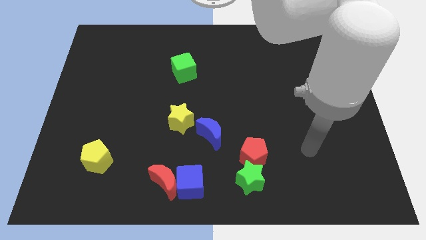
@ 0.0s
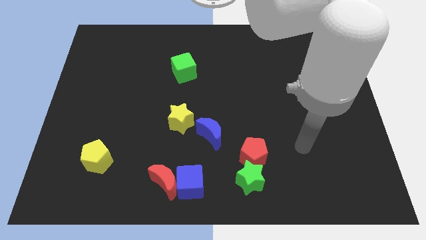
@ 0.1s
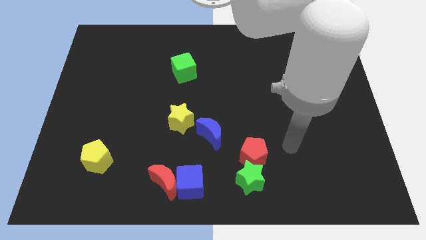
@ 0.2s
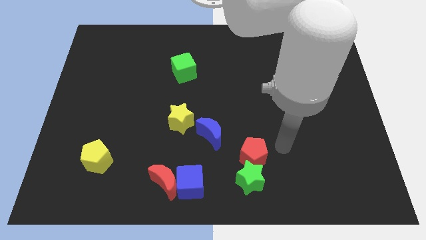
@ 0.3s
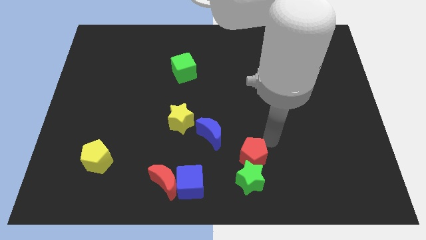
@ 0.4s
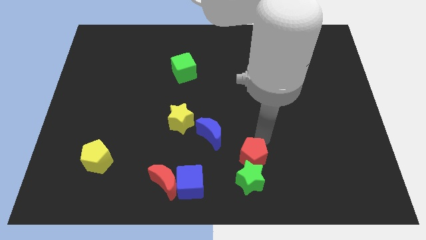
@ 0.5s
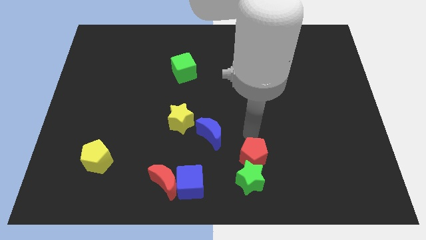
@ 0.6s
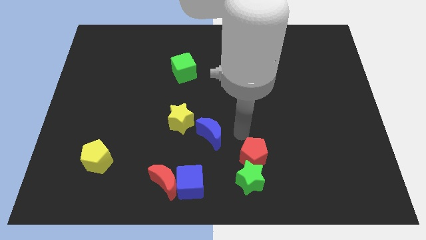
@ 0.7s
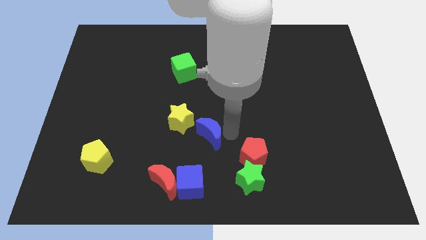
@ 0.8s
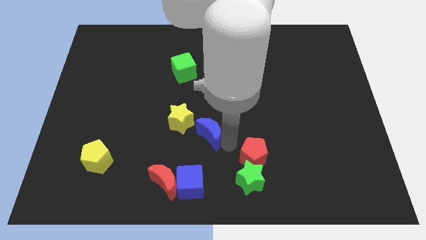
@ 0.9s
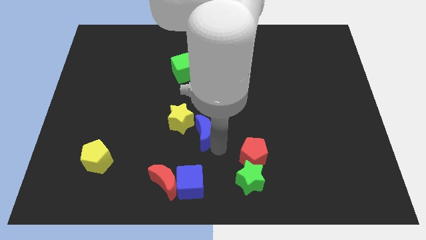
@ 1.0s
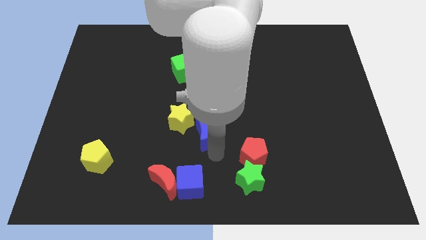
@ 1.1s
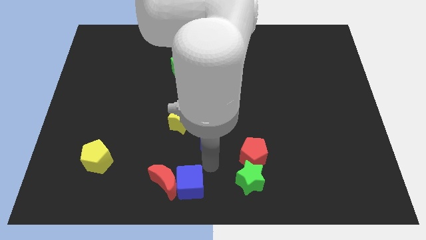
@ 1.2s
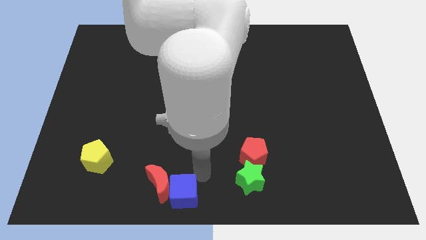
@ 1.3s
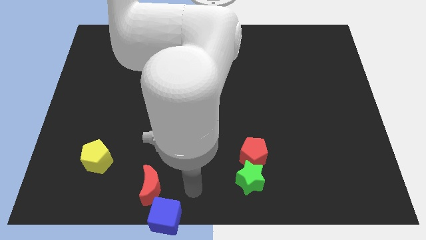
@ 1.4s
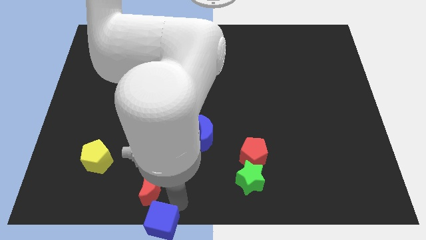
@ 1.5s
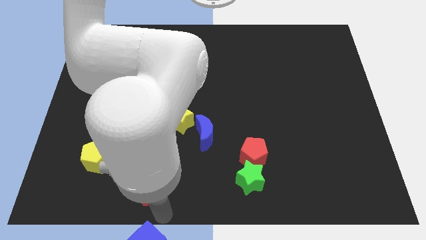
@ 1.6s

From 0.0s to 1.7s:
move the red moon away from the blue cube

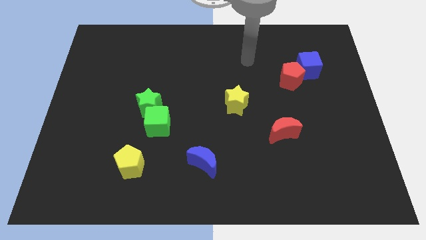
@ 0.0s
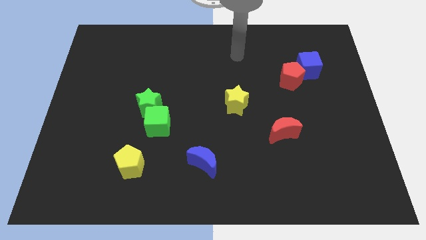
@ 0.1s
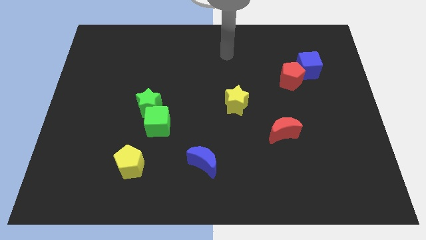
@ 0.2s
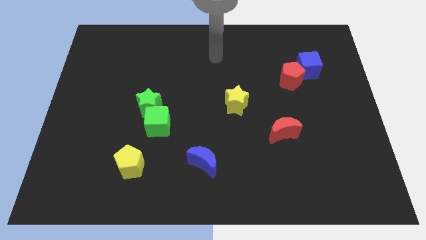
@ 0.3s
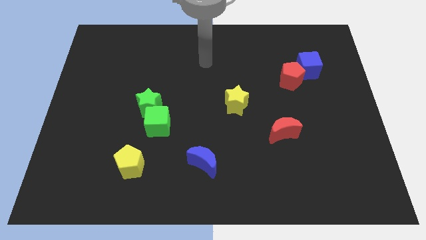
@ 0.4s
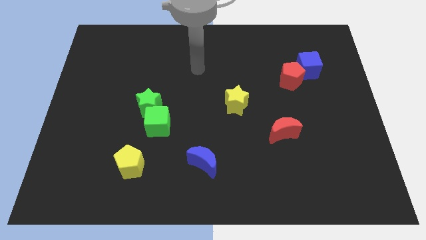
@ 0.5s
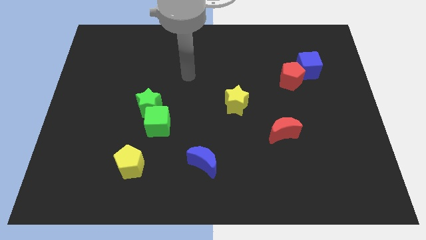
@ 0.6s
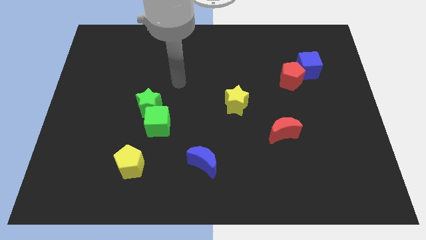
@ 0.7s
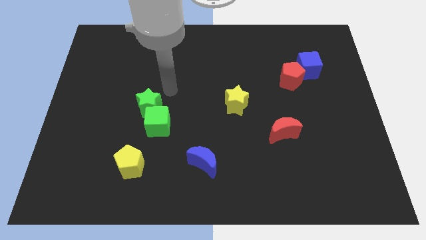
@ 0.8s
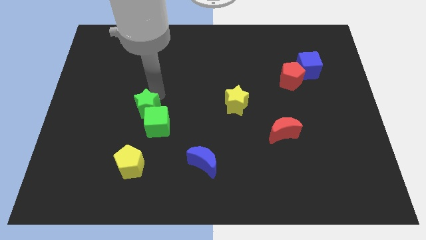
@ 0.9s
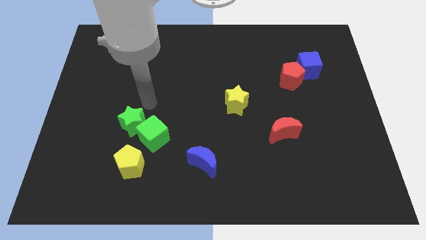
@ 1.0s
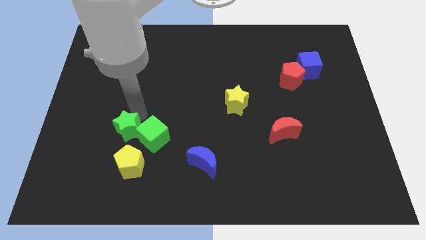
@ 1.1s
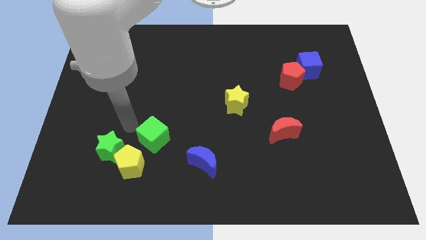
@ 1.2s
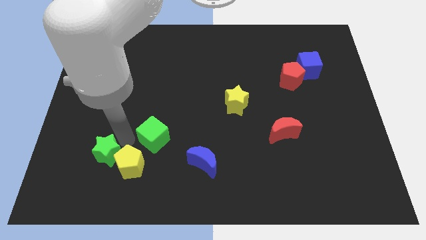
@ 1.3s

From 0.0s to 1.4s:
separate the green cube from the green star

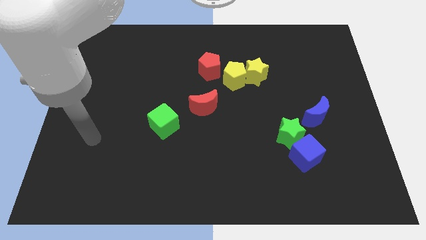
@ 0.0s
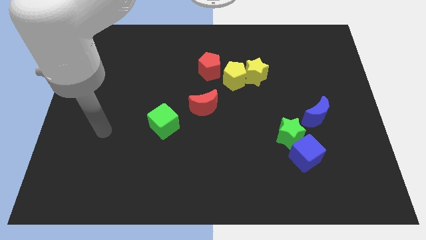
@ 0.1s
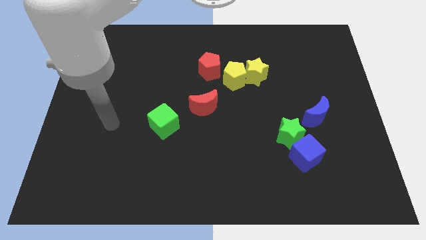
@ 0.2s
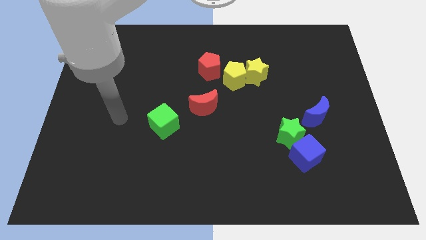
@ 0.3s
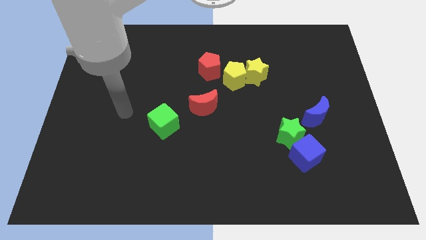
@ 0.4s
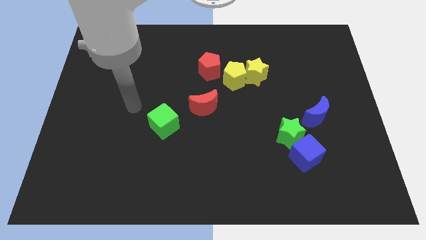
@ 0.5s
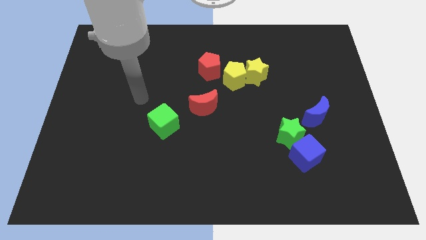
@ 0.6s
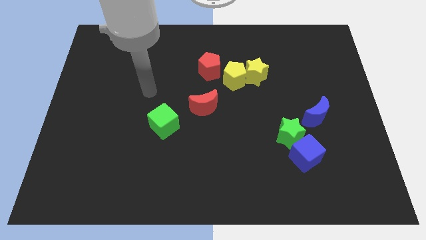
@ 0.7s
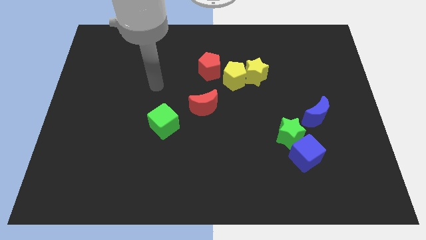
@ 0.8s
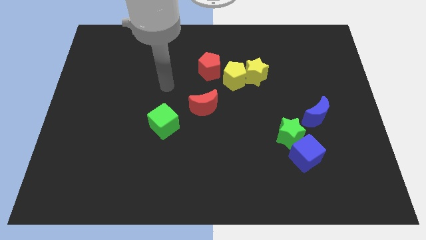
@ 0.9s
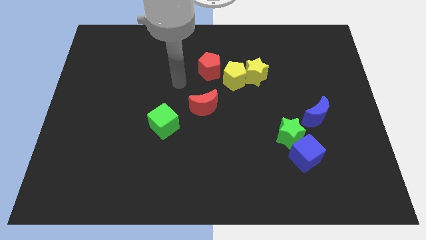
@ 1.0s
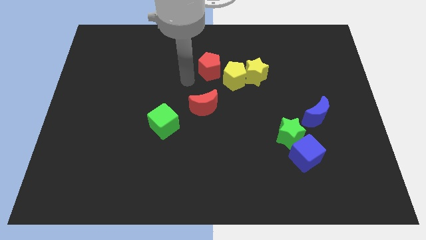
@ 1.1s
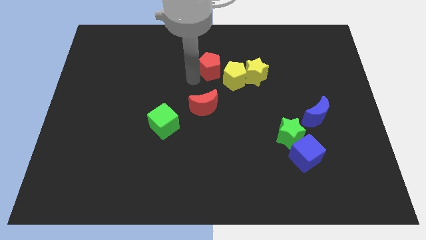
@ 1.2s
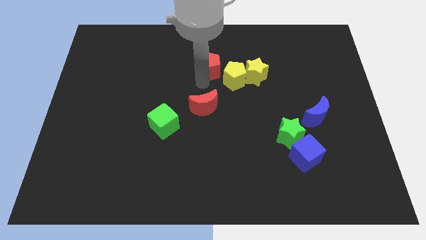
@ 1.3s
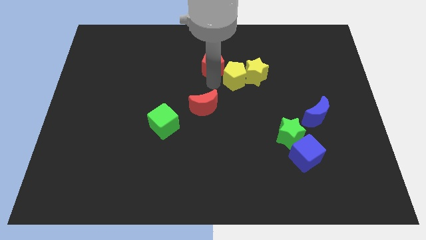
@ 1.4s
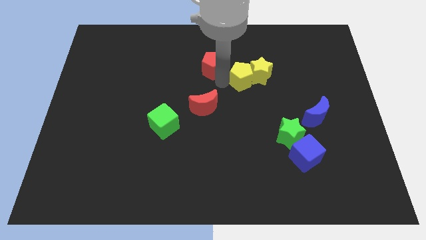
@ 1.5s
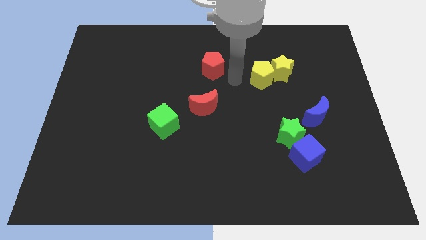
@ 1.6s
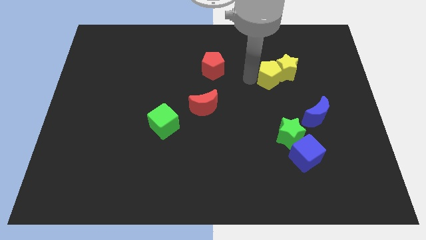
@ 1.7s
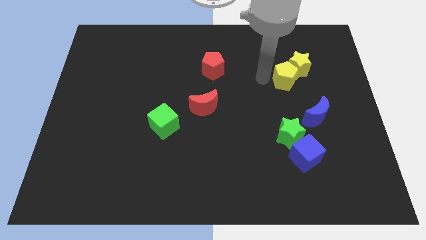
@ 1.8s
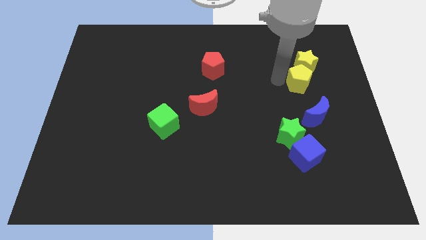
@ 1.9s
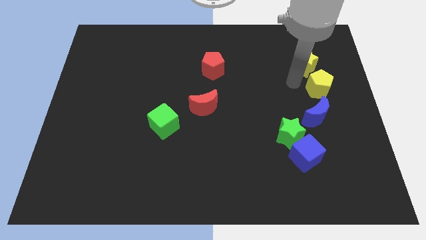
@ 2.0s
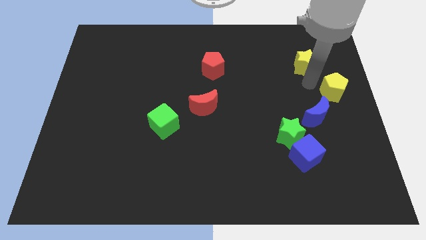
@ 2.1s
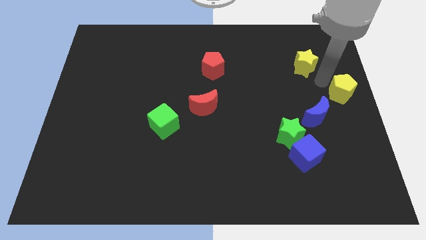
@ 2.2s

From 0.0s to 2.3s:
separate the yellow star from the yellow pentagon

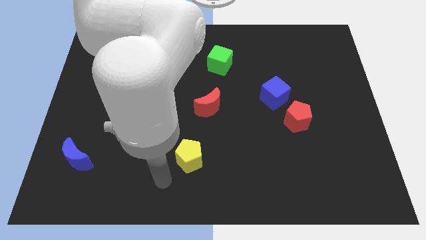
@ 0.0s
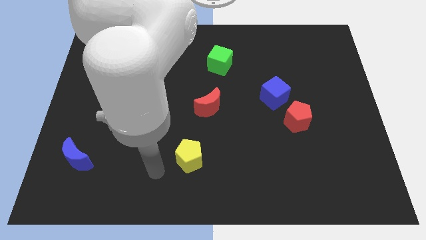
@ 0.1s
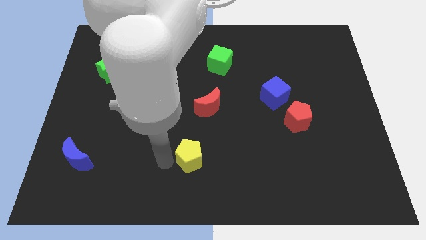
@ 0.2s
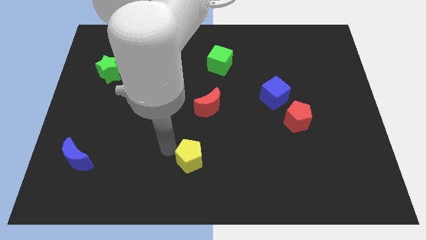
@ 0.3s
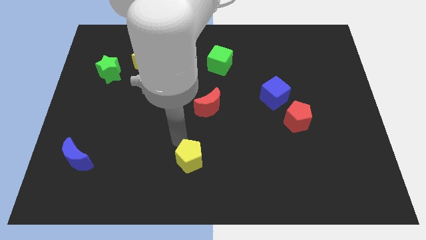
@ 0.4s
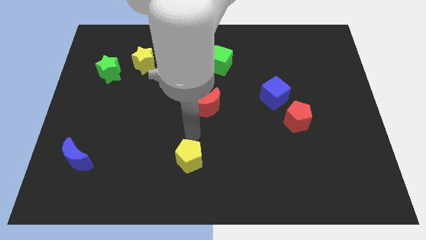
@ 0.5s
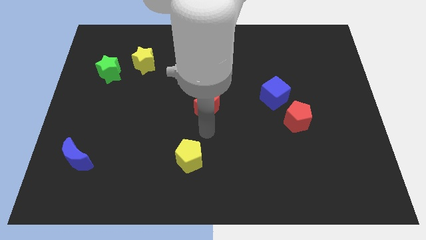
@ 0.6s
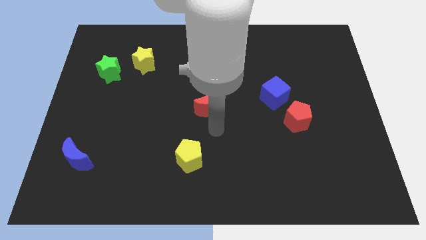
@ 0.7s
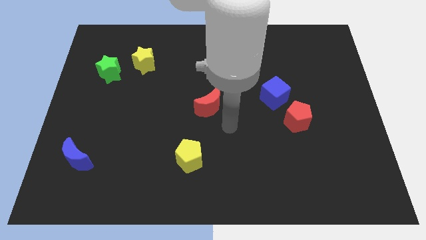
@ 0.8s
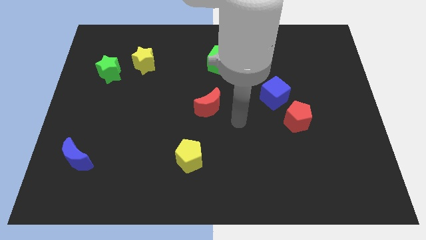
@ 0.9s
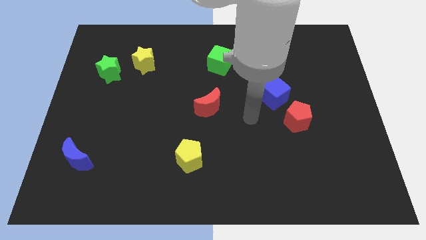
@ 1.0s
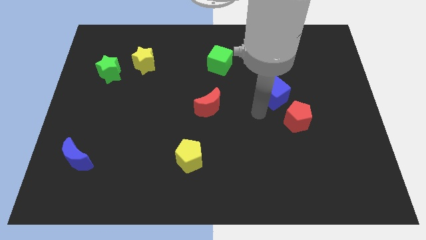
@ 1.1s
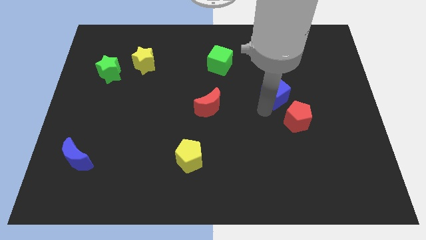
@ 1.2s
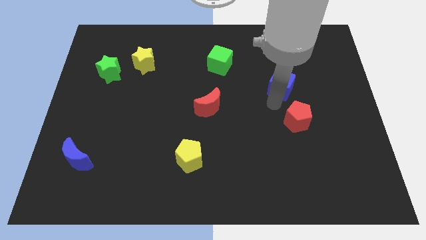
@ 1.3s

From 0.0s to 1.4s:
separate the red pentagon from the blue cube

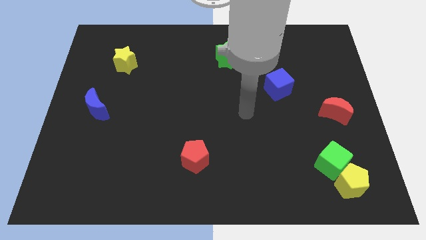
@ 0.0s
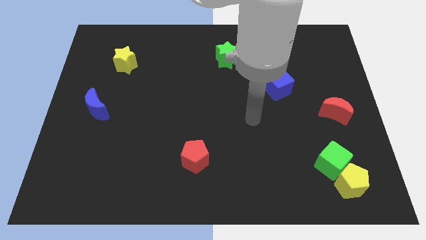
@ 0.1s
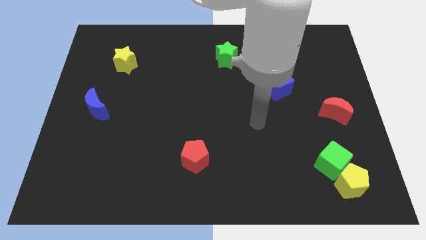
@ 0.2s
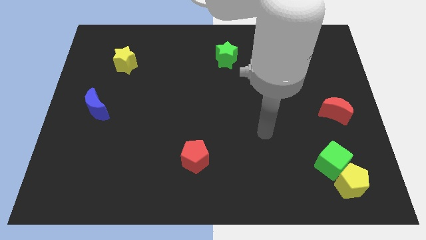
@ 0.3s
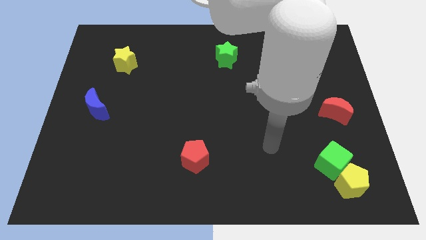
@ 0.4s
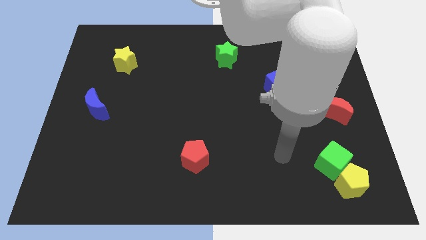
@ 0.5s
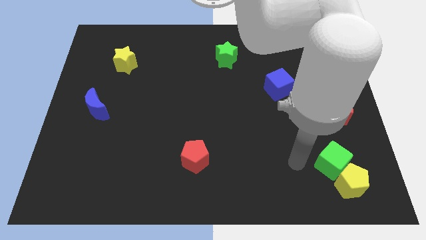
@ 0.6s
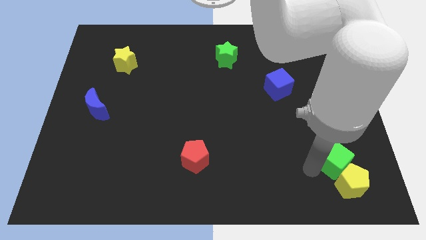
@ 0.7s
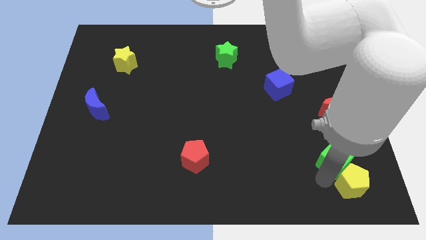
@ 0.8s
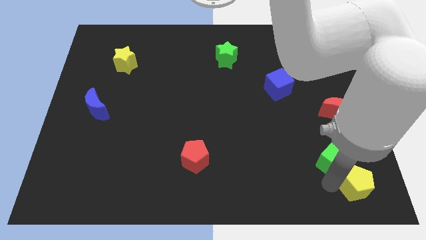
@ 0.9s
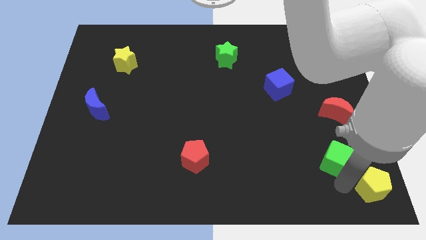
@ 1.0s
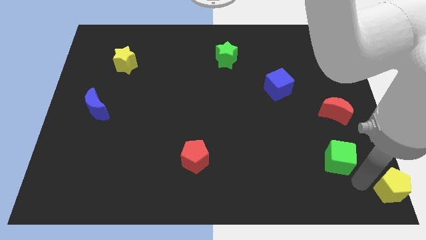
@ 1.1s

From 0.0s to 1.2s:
separate the green cube from the yellow pentagon

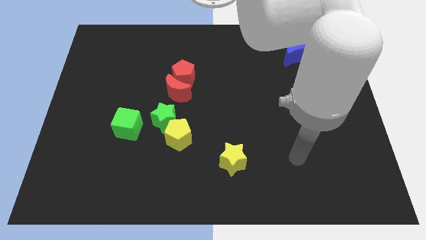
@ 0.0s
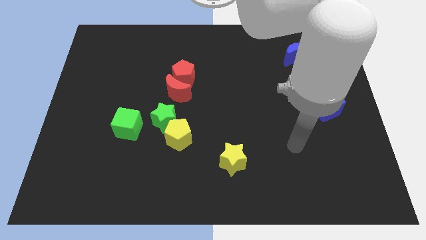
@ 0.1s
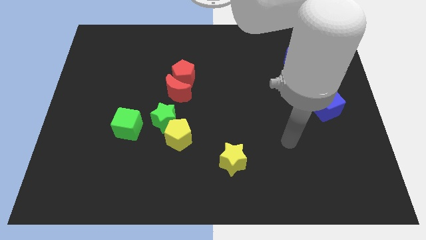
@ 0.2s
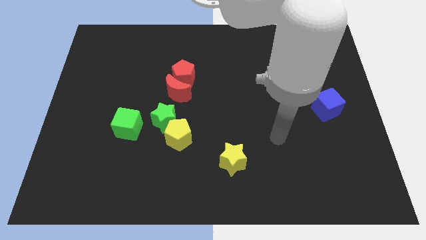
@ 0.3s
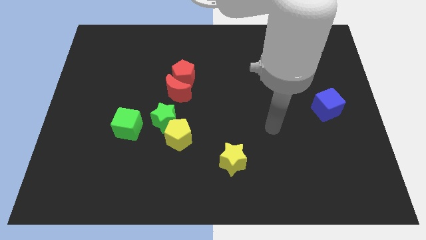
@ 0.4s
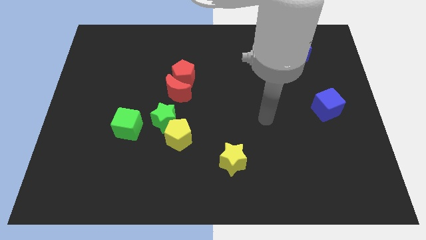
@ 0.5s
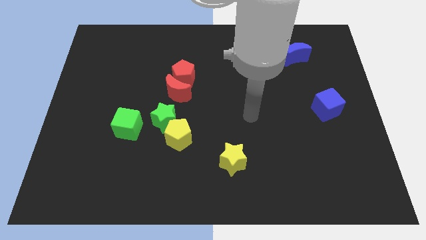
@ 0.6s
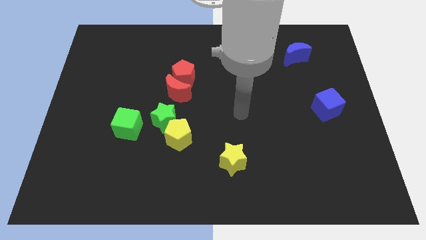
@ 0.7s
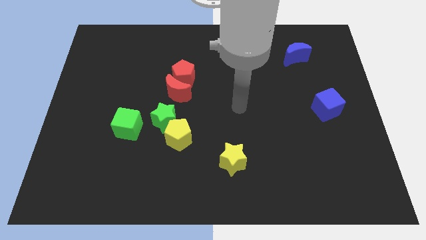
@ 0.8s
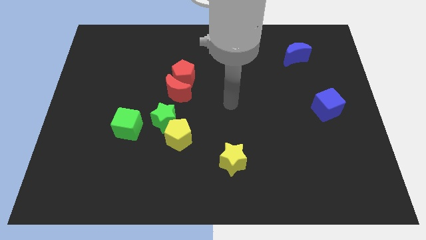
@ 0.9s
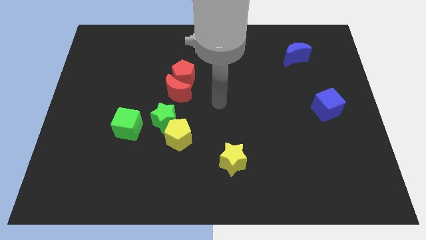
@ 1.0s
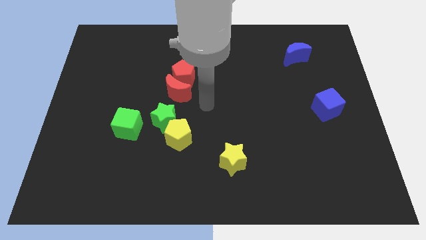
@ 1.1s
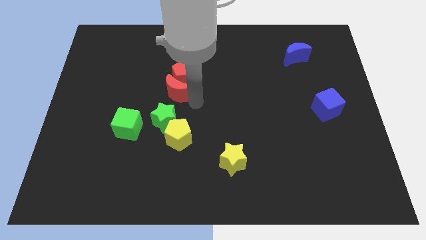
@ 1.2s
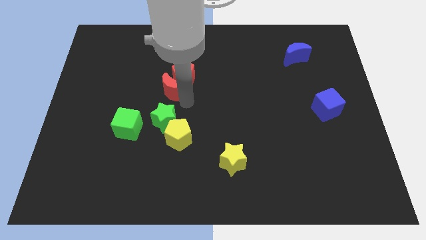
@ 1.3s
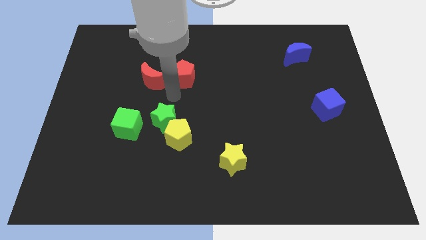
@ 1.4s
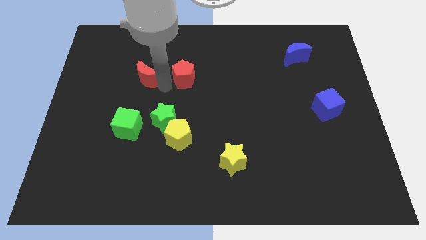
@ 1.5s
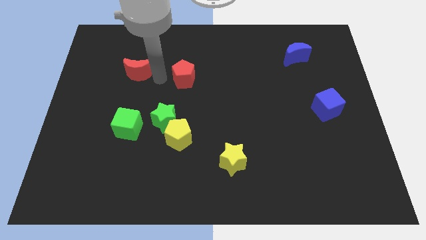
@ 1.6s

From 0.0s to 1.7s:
move the red pentagon away from the red moon
